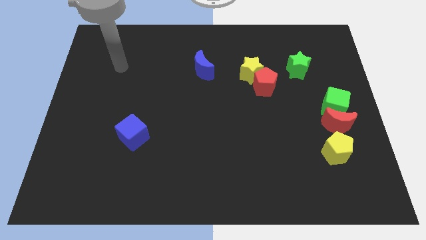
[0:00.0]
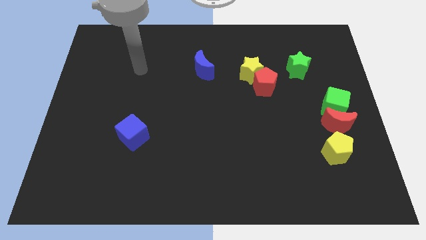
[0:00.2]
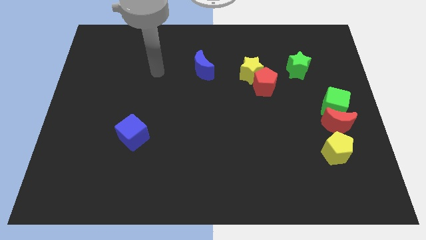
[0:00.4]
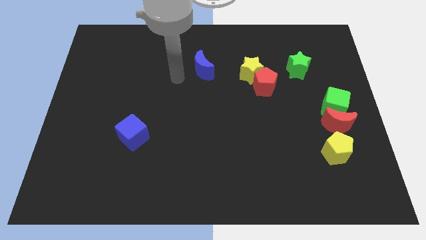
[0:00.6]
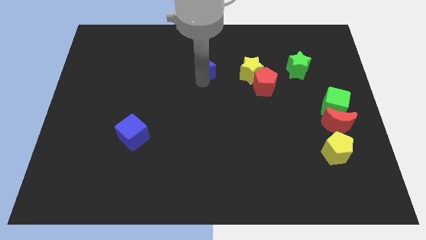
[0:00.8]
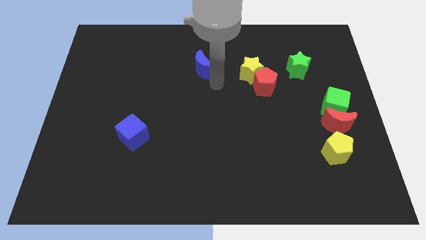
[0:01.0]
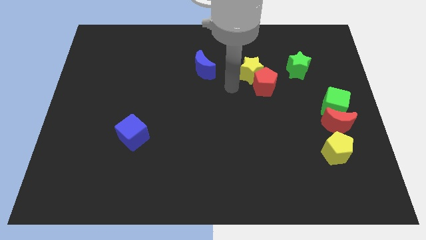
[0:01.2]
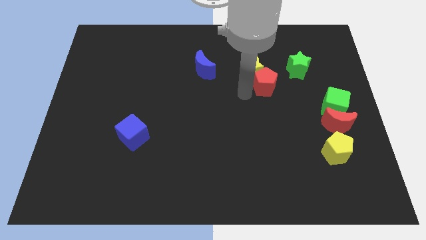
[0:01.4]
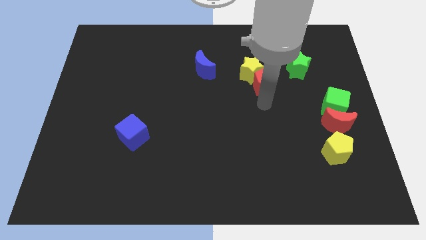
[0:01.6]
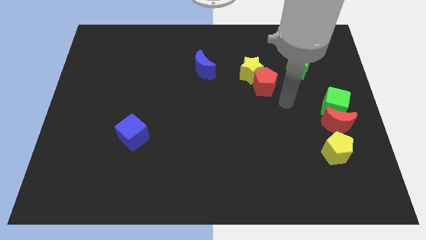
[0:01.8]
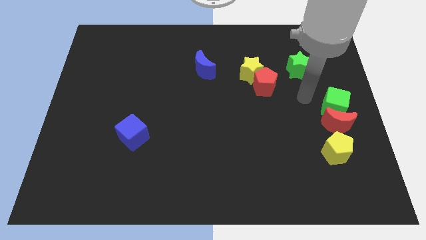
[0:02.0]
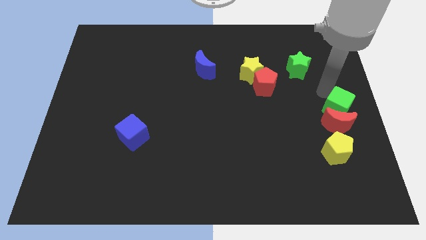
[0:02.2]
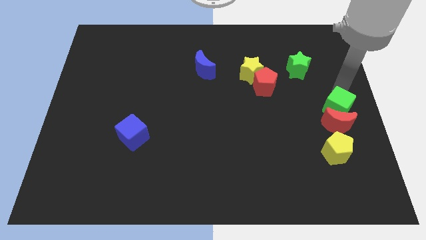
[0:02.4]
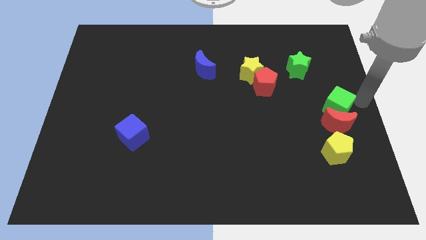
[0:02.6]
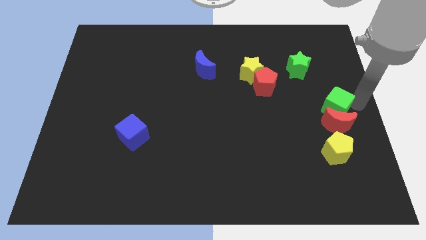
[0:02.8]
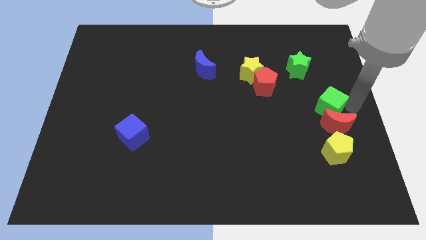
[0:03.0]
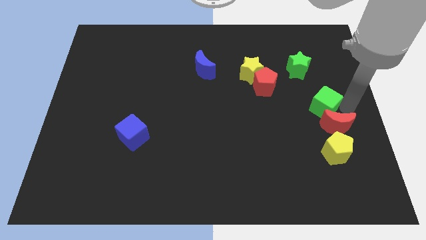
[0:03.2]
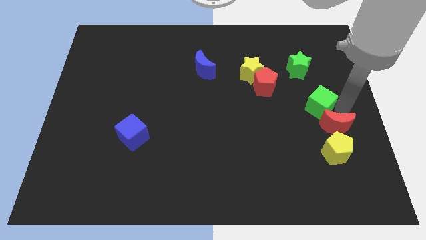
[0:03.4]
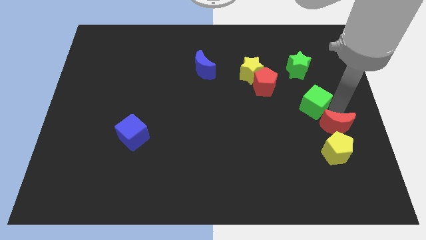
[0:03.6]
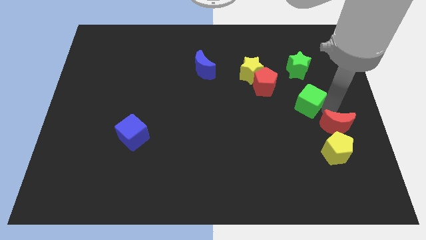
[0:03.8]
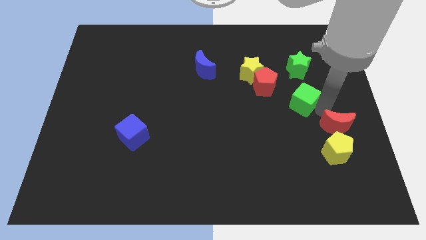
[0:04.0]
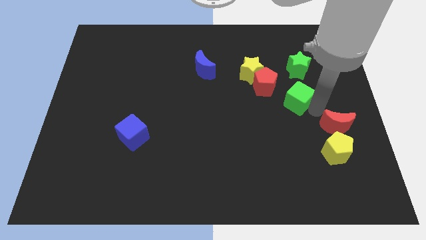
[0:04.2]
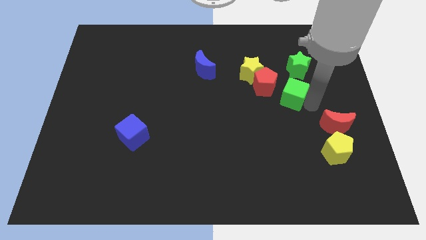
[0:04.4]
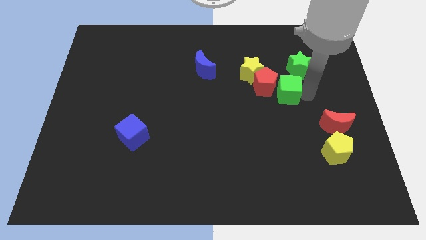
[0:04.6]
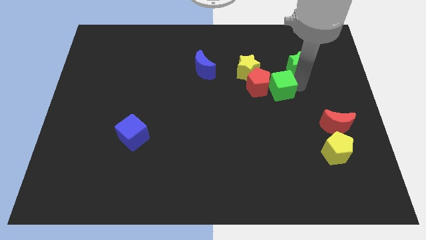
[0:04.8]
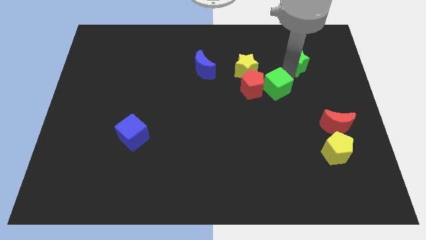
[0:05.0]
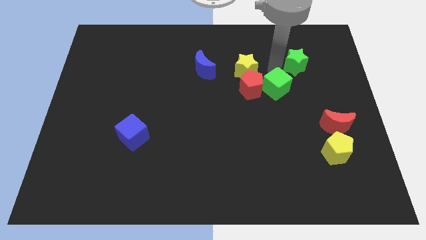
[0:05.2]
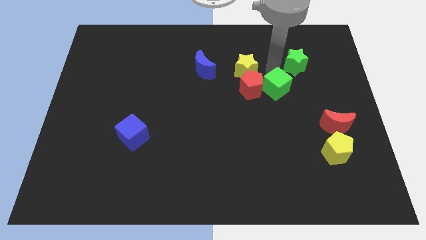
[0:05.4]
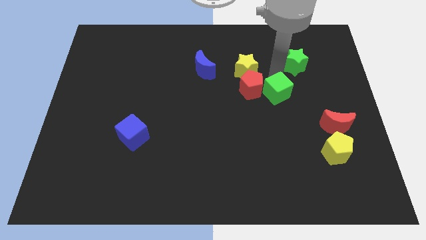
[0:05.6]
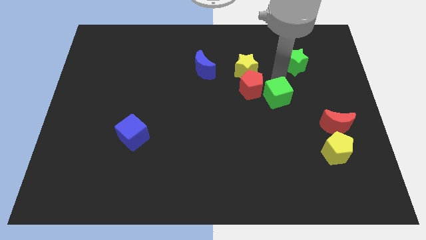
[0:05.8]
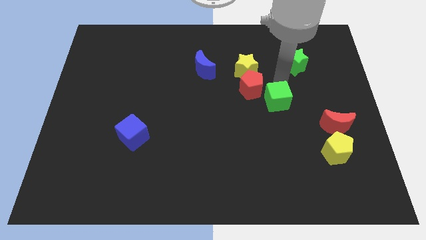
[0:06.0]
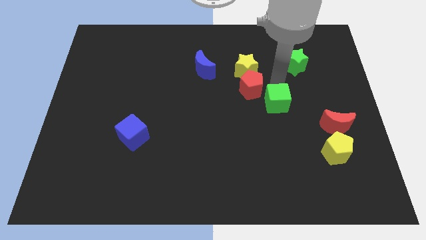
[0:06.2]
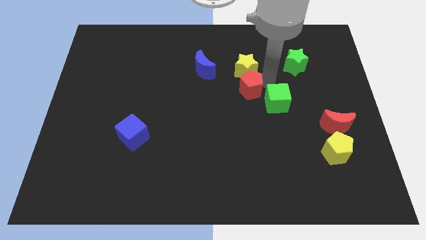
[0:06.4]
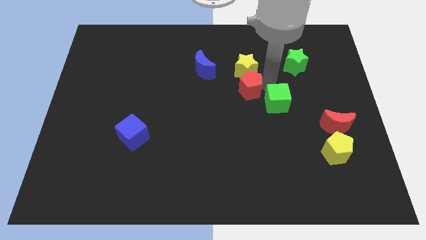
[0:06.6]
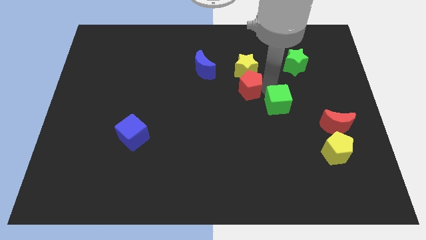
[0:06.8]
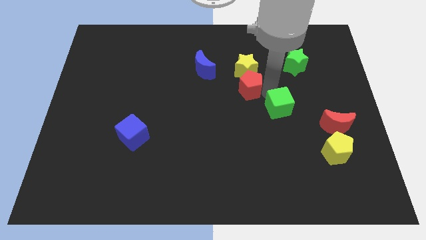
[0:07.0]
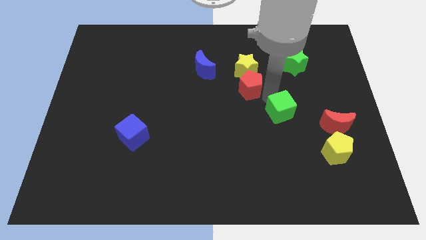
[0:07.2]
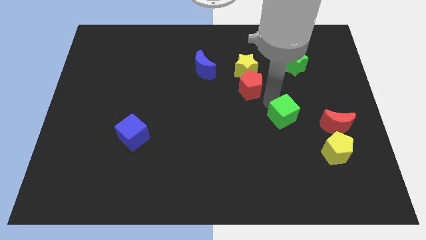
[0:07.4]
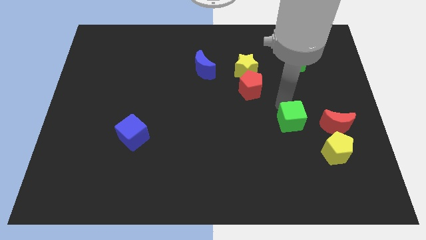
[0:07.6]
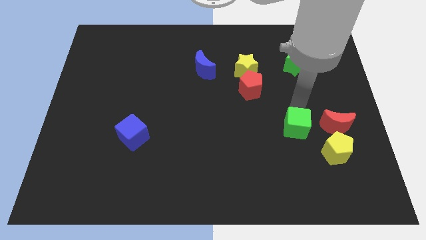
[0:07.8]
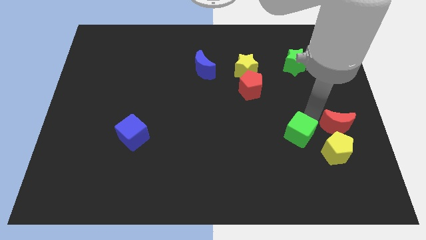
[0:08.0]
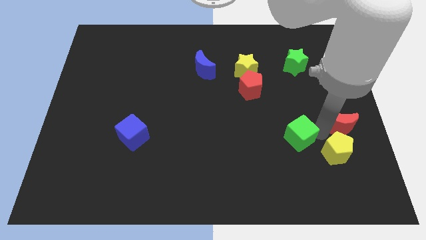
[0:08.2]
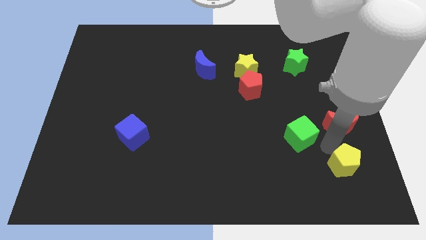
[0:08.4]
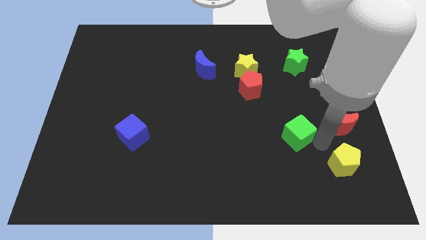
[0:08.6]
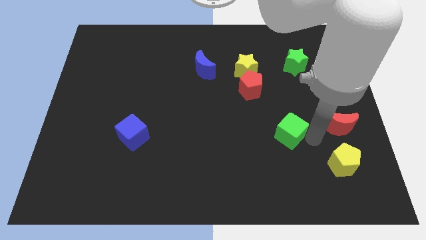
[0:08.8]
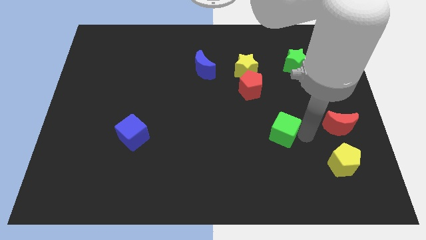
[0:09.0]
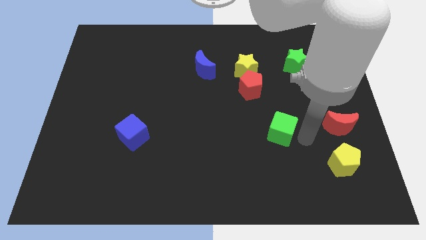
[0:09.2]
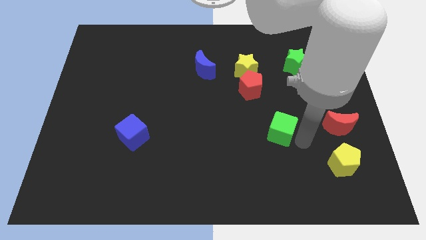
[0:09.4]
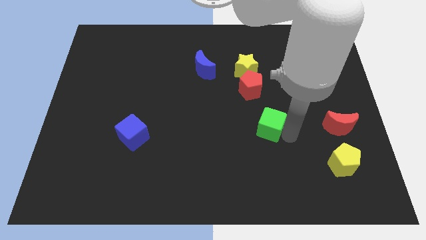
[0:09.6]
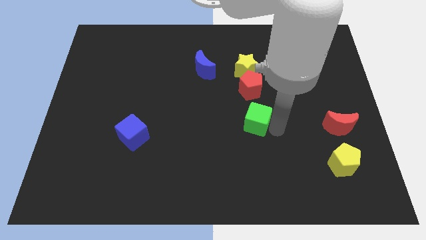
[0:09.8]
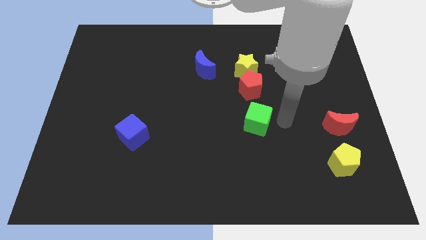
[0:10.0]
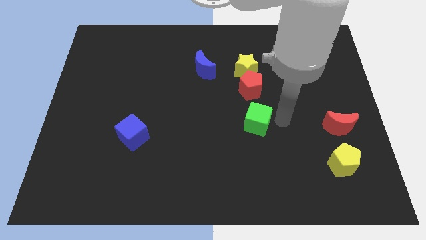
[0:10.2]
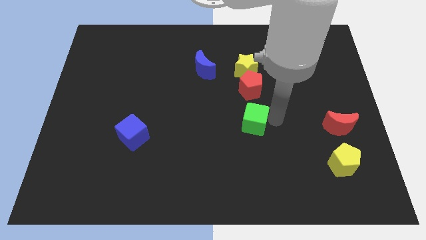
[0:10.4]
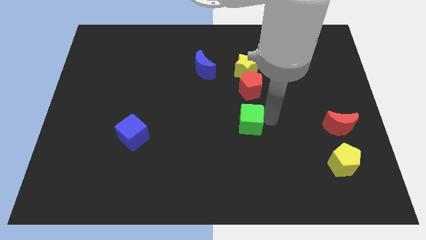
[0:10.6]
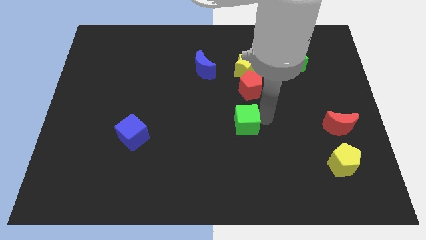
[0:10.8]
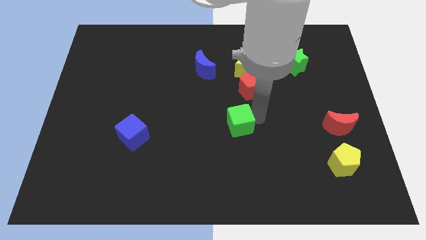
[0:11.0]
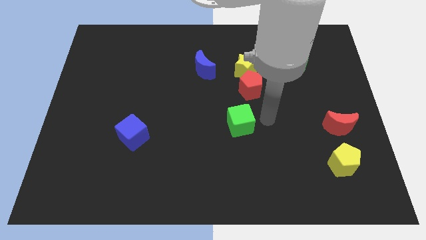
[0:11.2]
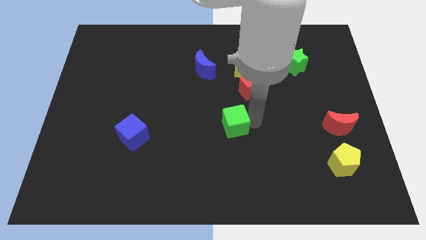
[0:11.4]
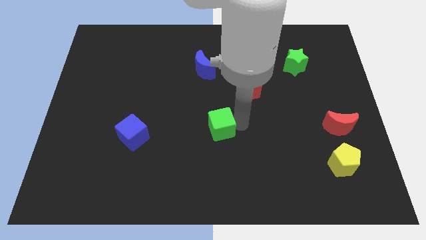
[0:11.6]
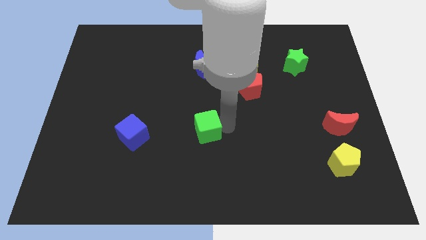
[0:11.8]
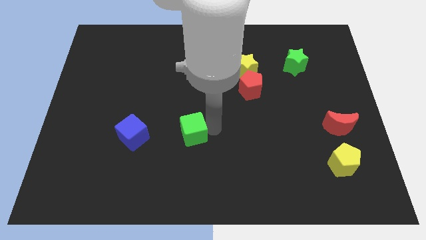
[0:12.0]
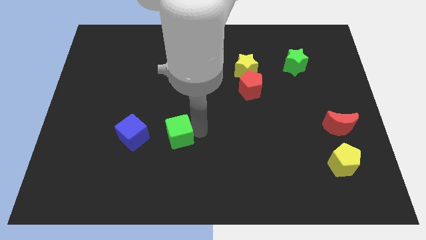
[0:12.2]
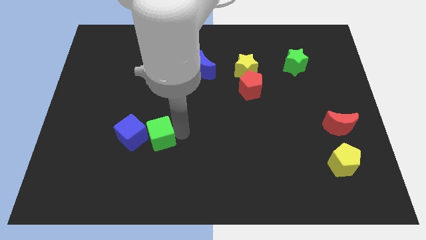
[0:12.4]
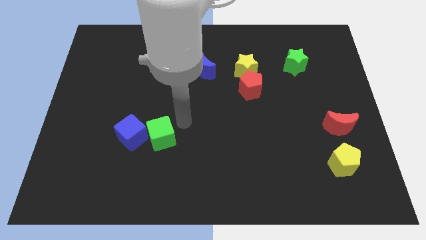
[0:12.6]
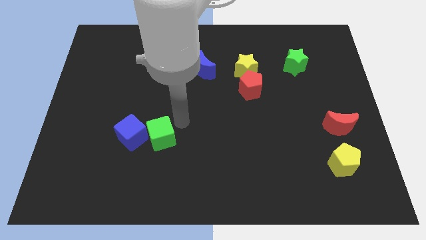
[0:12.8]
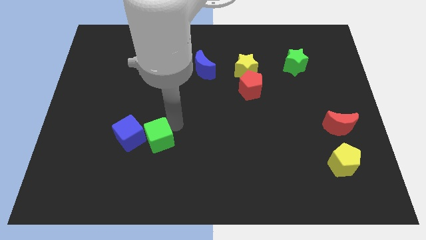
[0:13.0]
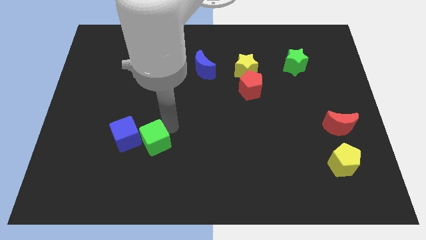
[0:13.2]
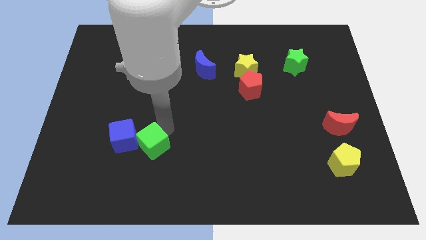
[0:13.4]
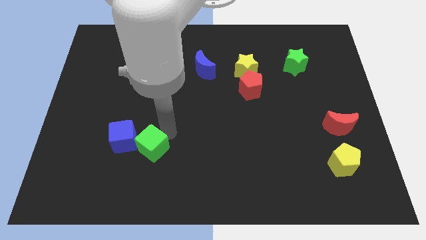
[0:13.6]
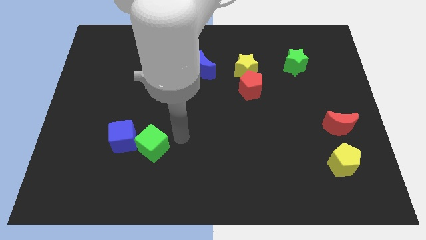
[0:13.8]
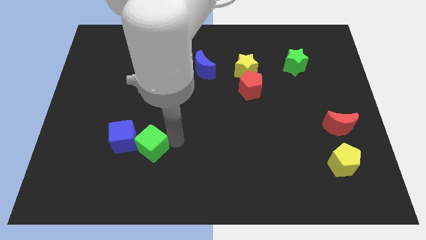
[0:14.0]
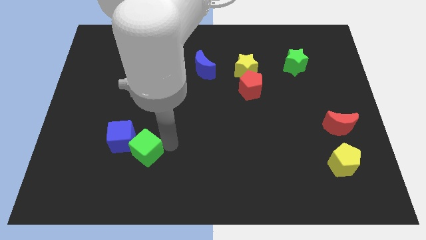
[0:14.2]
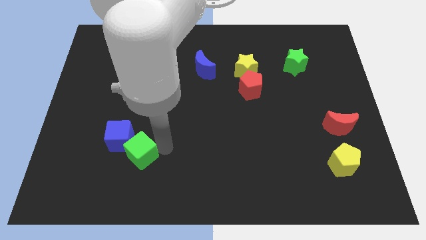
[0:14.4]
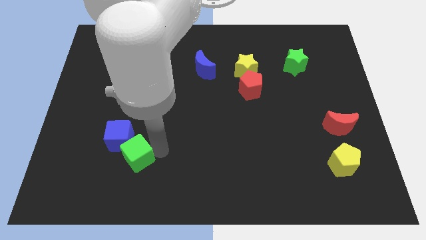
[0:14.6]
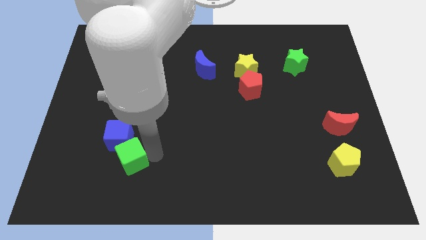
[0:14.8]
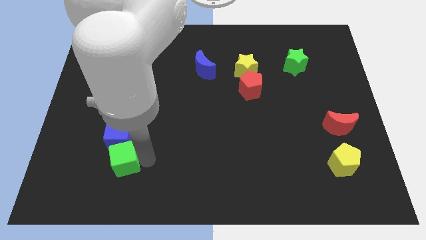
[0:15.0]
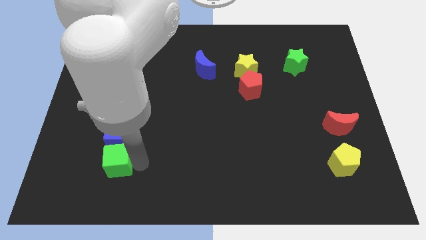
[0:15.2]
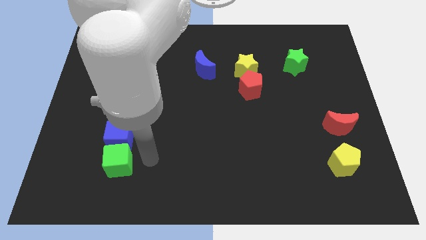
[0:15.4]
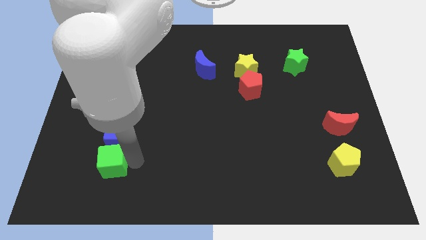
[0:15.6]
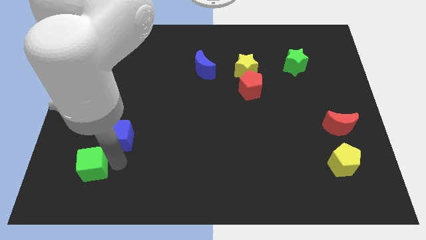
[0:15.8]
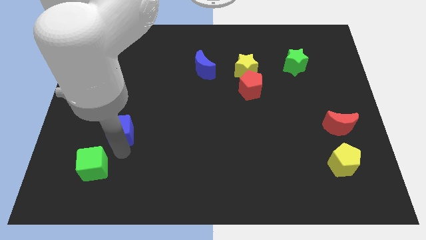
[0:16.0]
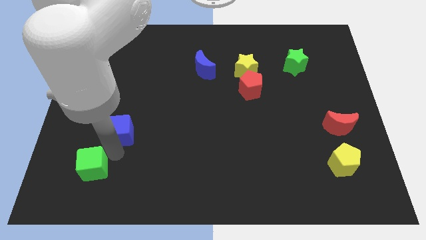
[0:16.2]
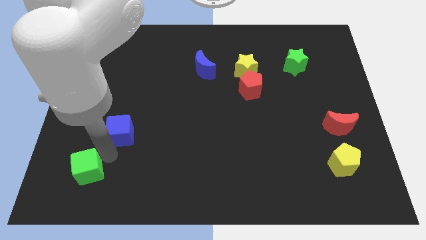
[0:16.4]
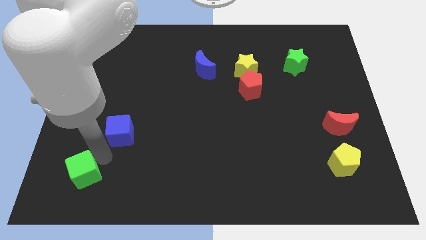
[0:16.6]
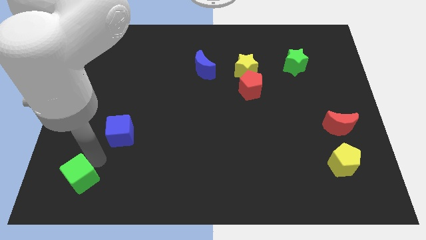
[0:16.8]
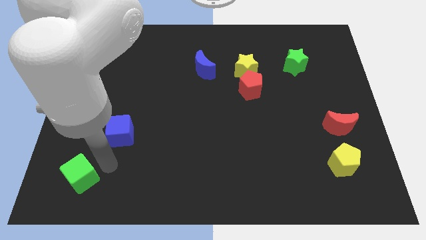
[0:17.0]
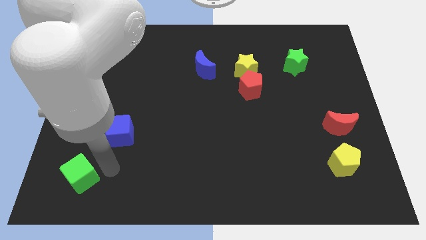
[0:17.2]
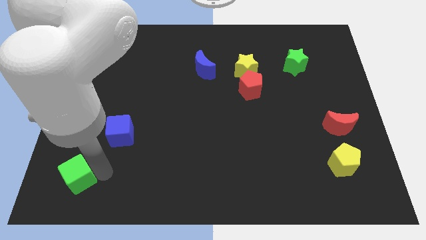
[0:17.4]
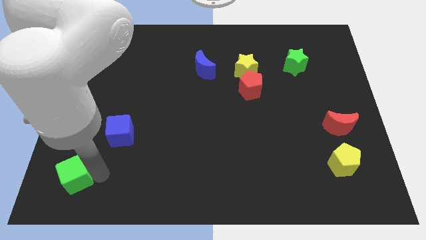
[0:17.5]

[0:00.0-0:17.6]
put the green cube to the bottom left
